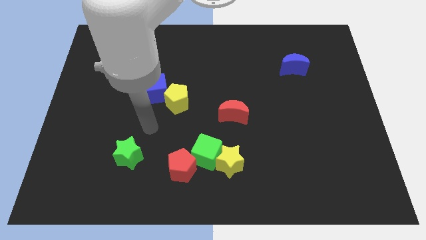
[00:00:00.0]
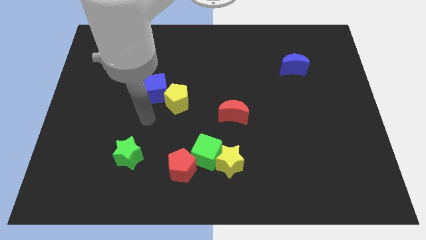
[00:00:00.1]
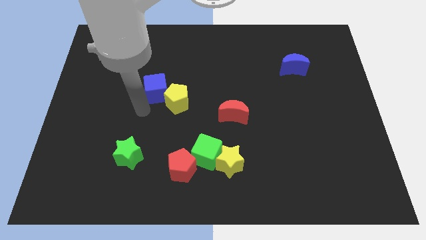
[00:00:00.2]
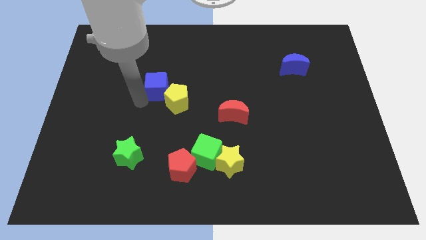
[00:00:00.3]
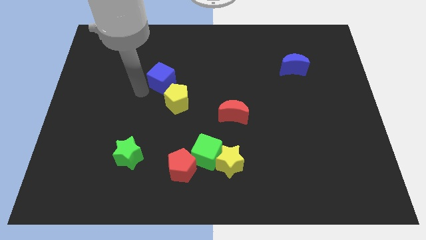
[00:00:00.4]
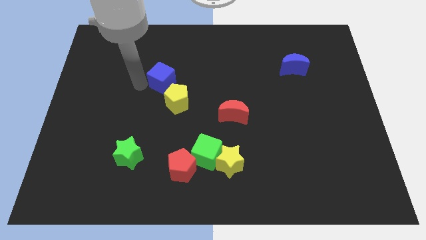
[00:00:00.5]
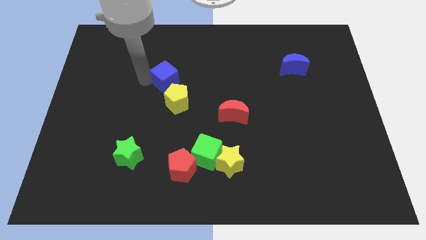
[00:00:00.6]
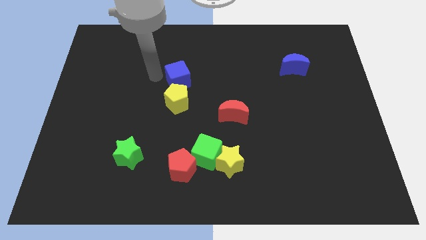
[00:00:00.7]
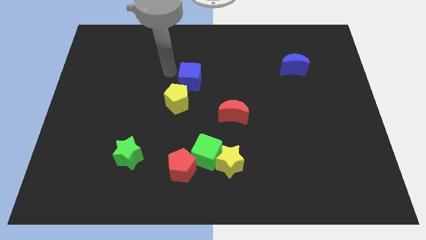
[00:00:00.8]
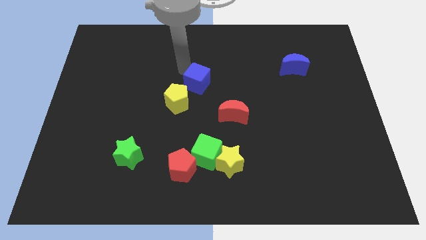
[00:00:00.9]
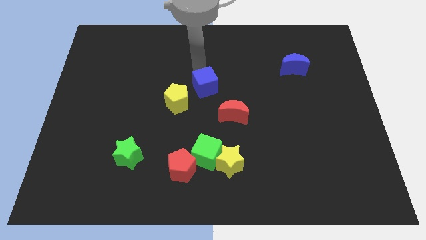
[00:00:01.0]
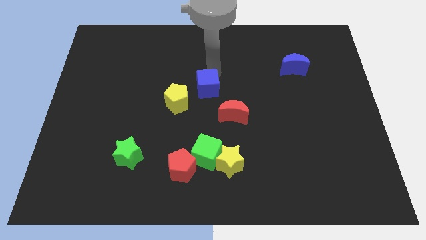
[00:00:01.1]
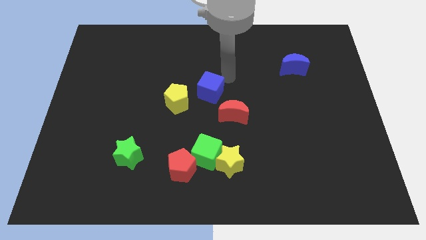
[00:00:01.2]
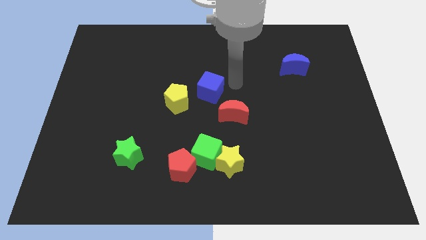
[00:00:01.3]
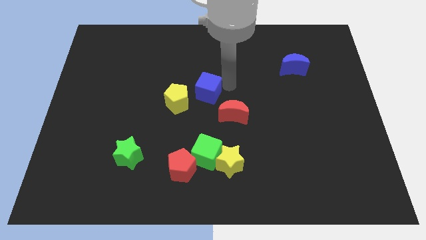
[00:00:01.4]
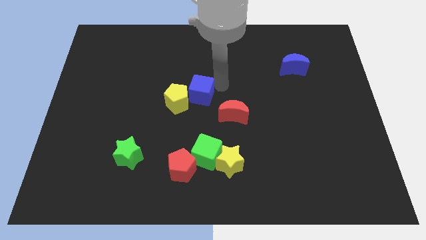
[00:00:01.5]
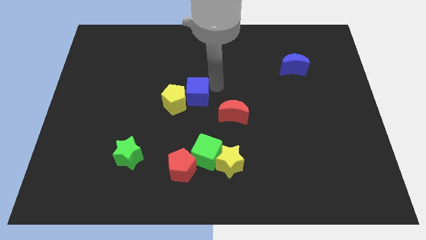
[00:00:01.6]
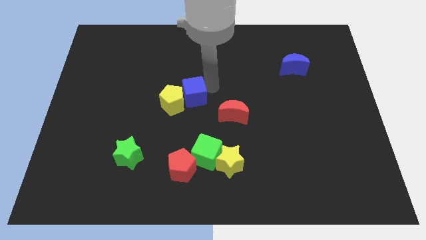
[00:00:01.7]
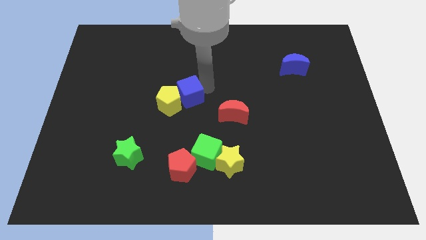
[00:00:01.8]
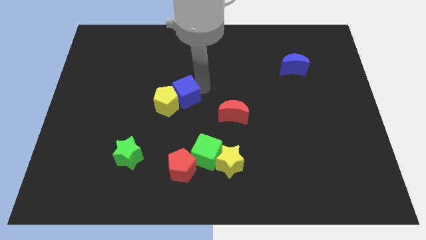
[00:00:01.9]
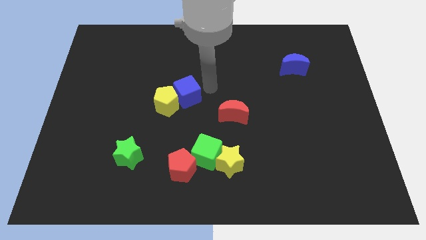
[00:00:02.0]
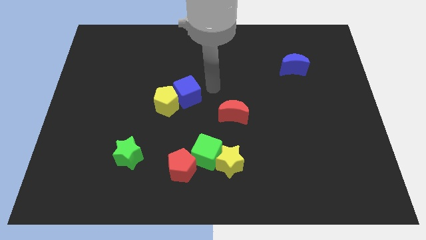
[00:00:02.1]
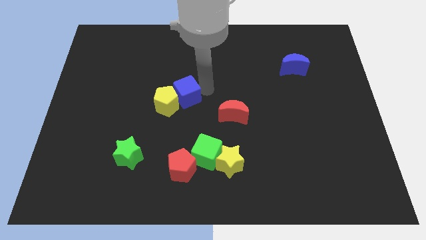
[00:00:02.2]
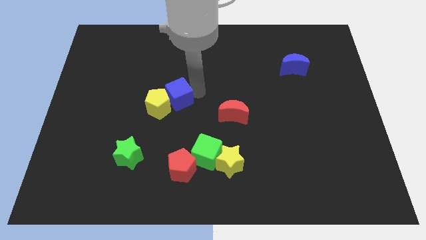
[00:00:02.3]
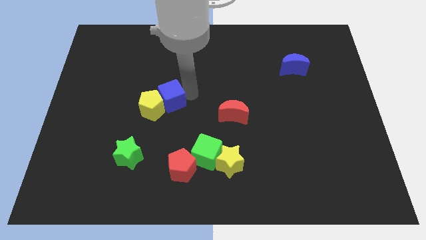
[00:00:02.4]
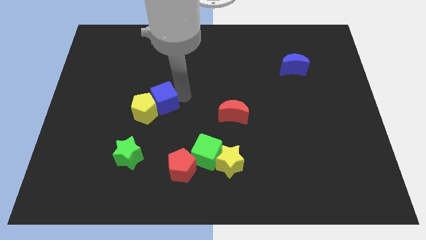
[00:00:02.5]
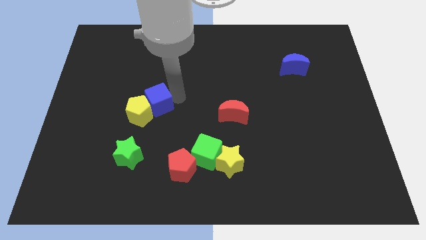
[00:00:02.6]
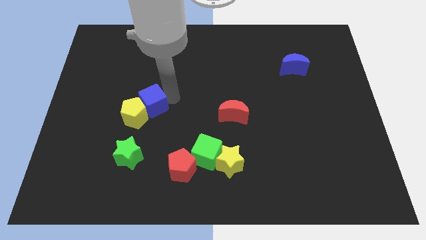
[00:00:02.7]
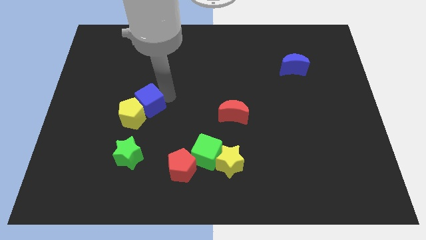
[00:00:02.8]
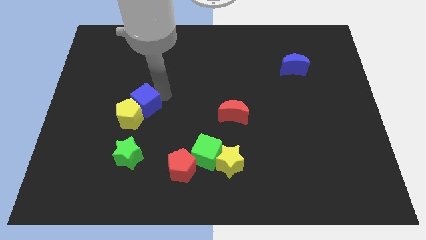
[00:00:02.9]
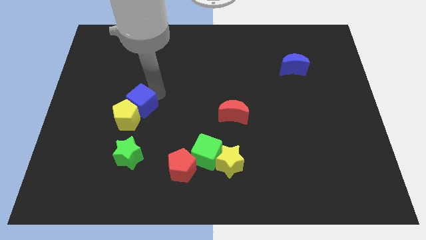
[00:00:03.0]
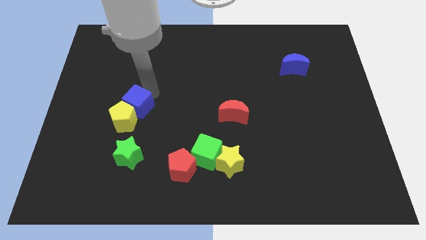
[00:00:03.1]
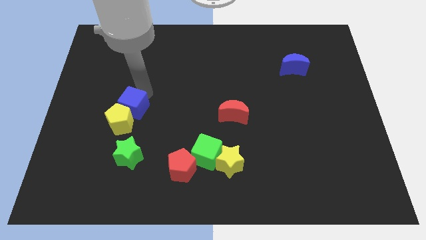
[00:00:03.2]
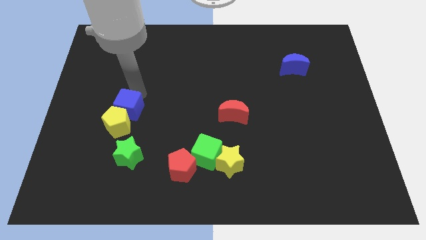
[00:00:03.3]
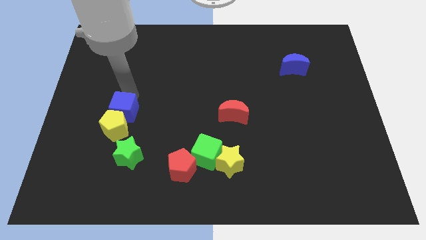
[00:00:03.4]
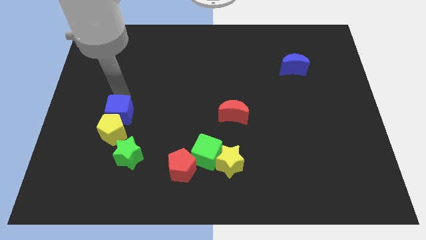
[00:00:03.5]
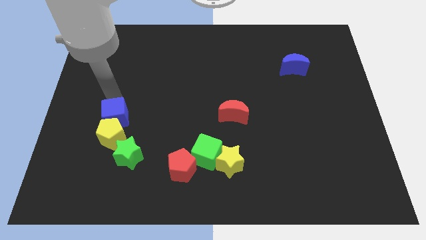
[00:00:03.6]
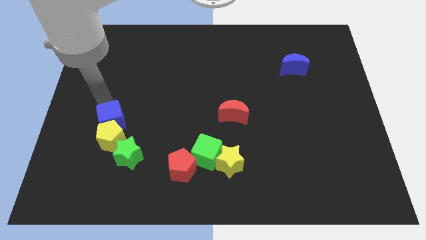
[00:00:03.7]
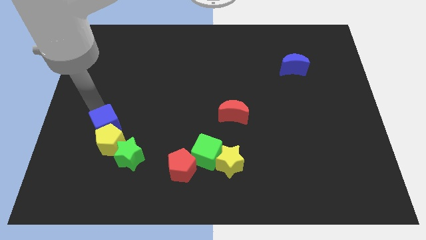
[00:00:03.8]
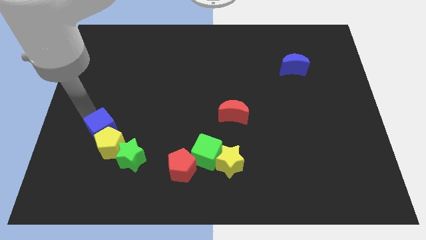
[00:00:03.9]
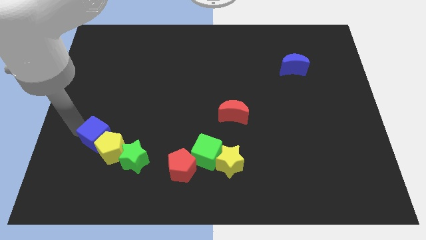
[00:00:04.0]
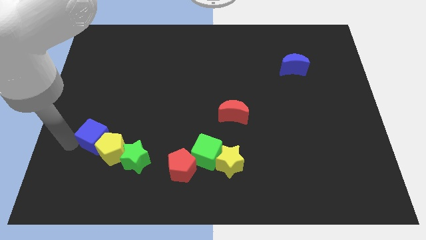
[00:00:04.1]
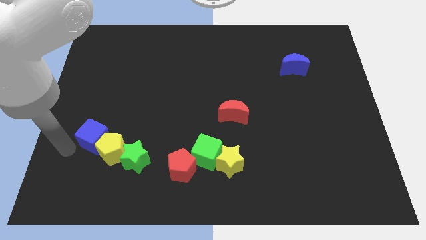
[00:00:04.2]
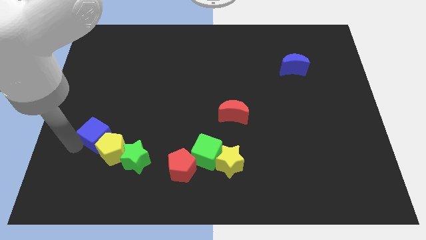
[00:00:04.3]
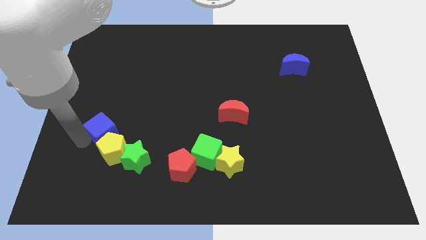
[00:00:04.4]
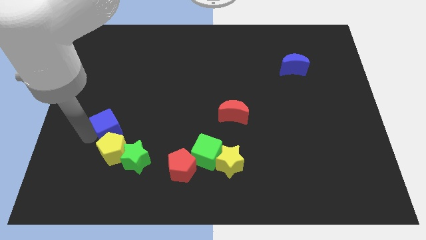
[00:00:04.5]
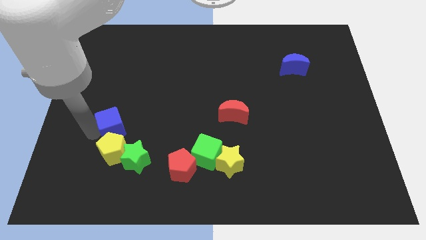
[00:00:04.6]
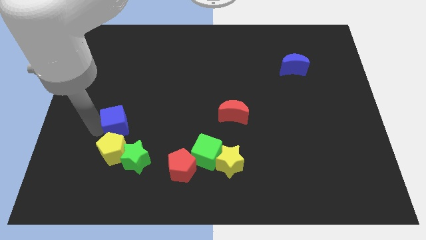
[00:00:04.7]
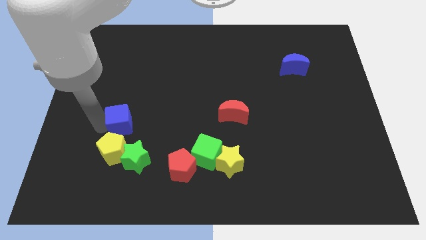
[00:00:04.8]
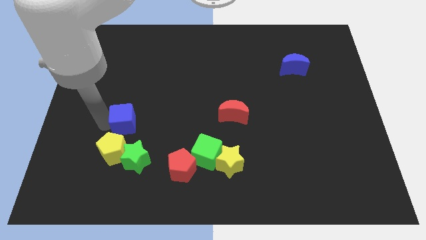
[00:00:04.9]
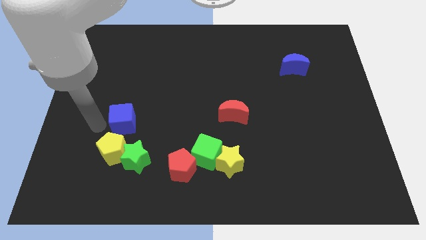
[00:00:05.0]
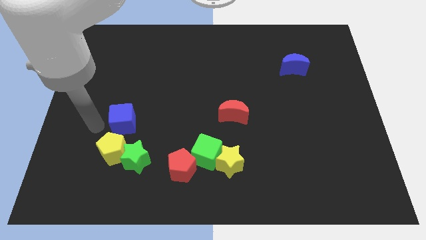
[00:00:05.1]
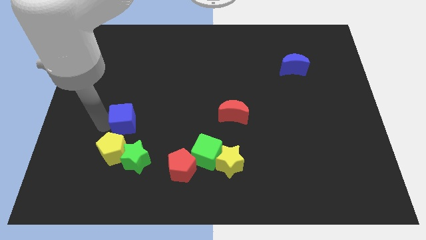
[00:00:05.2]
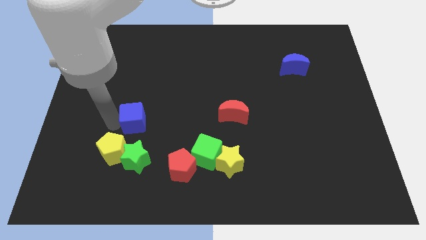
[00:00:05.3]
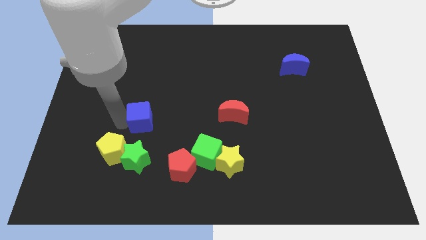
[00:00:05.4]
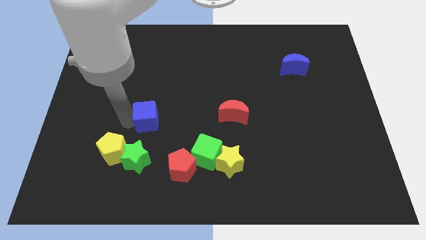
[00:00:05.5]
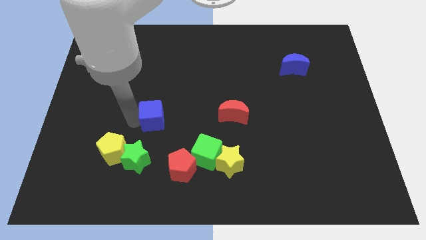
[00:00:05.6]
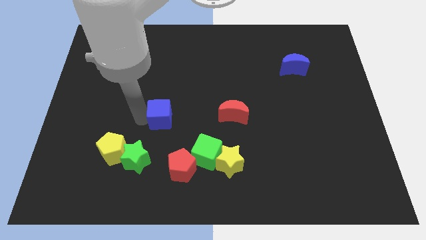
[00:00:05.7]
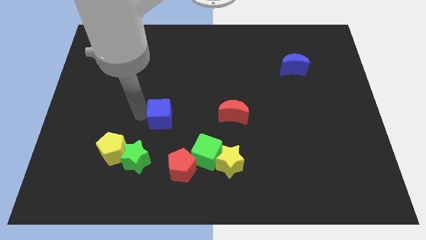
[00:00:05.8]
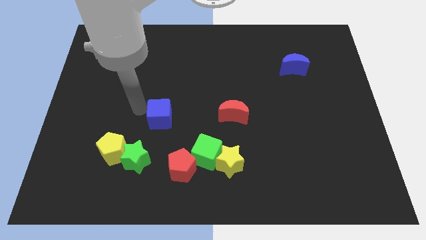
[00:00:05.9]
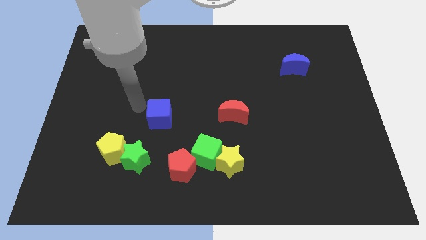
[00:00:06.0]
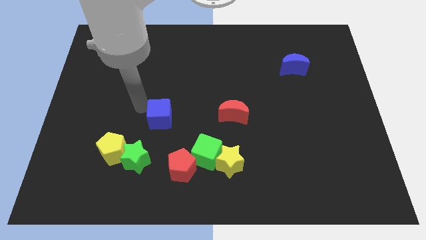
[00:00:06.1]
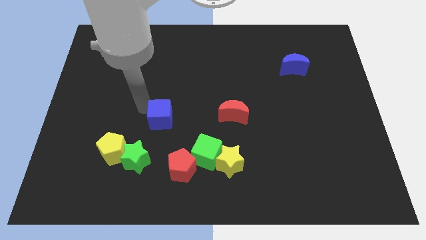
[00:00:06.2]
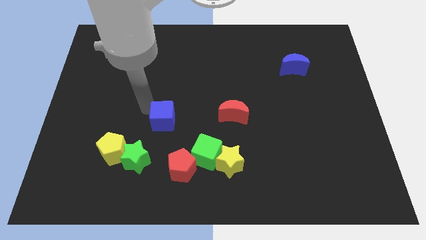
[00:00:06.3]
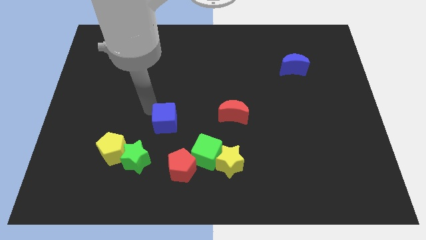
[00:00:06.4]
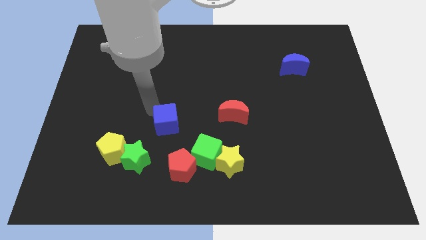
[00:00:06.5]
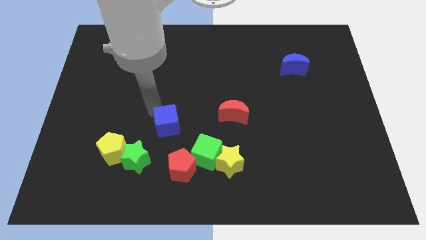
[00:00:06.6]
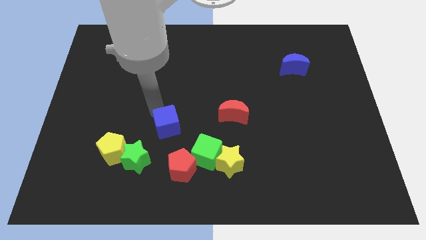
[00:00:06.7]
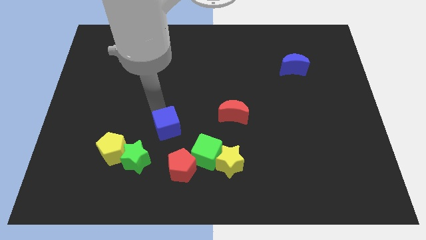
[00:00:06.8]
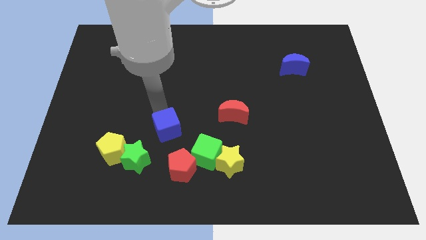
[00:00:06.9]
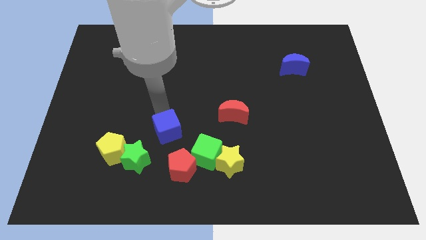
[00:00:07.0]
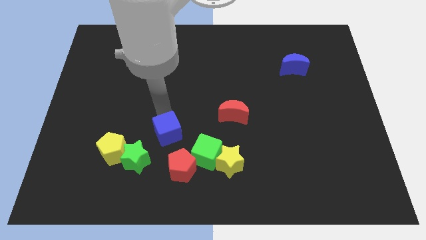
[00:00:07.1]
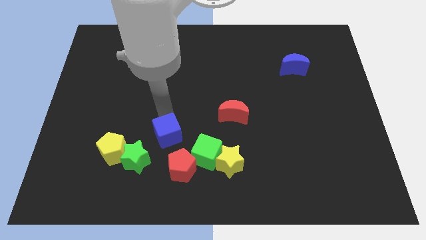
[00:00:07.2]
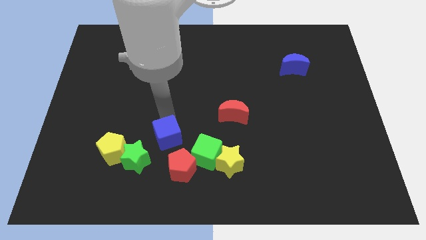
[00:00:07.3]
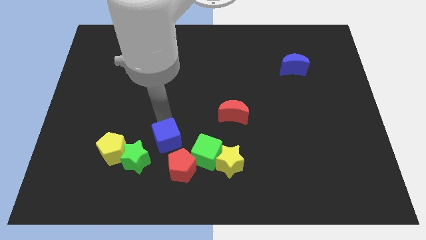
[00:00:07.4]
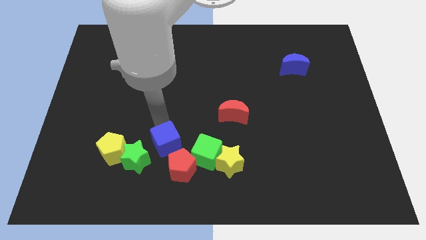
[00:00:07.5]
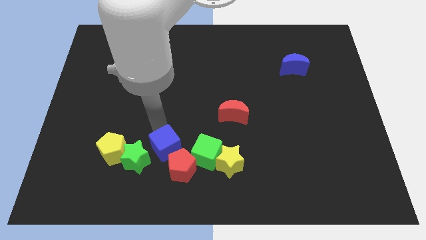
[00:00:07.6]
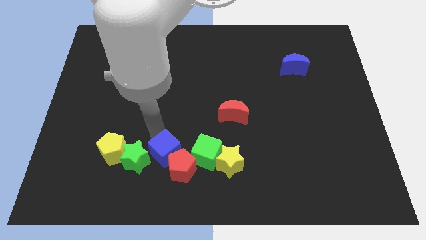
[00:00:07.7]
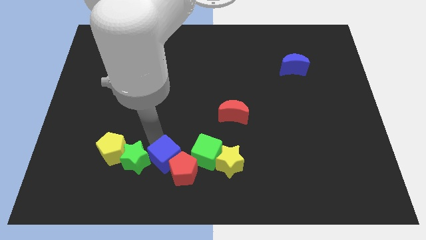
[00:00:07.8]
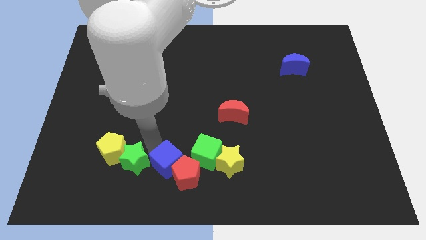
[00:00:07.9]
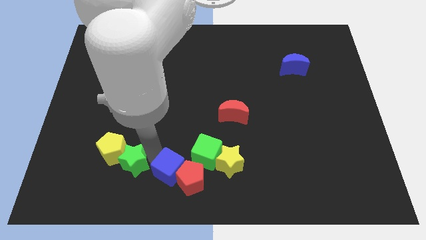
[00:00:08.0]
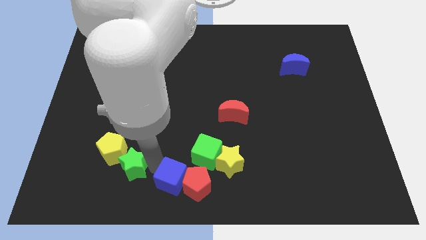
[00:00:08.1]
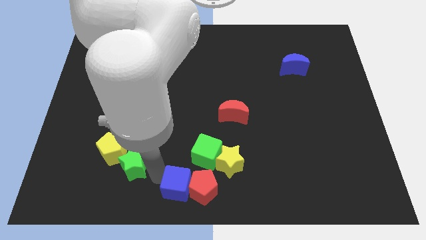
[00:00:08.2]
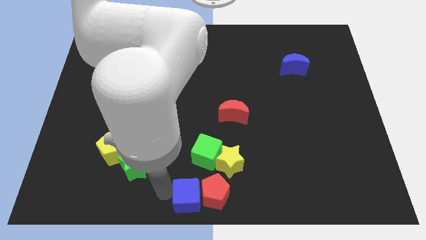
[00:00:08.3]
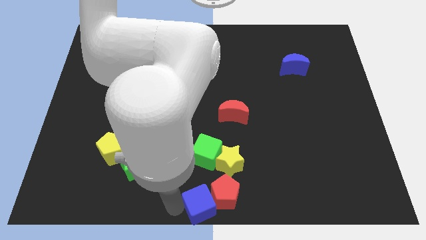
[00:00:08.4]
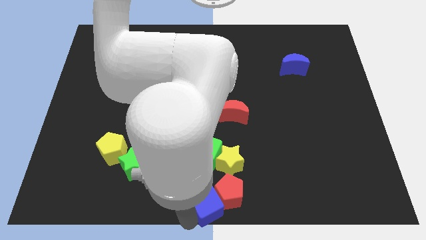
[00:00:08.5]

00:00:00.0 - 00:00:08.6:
push the blue cube downwards and then to the right
